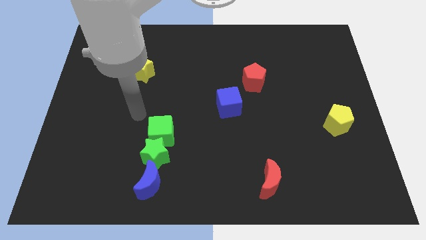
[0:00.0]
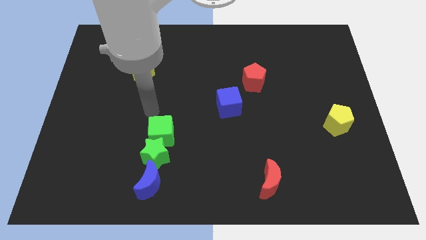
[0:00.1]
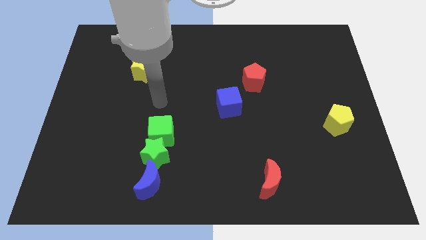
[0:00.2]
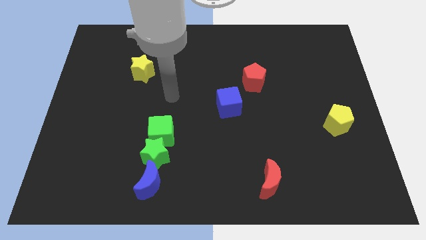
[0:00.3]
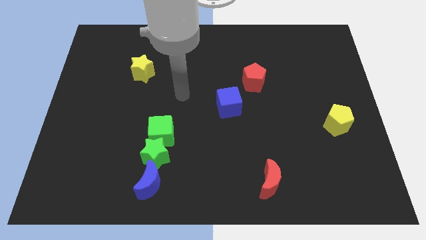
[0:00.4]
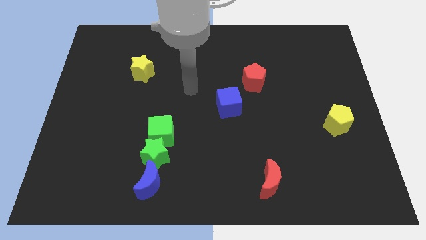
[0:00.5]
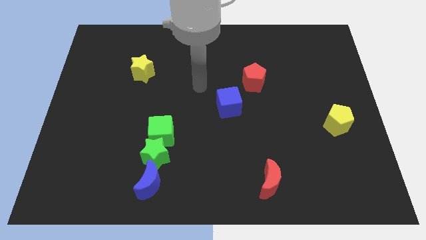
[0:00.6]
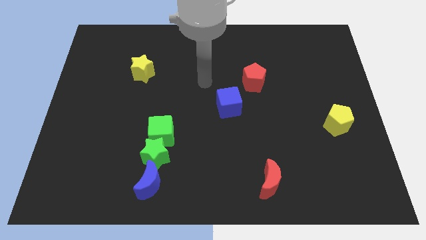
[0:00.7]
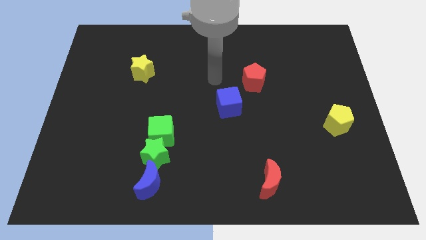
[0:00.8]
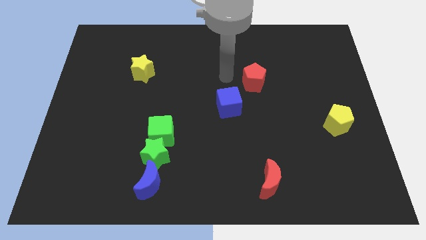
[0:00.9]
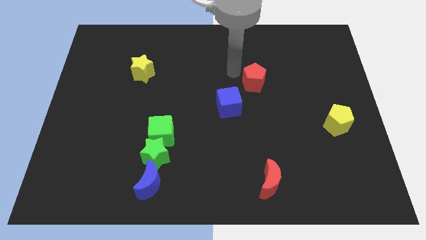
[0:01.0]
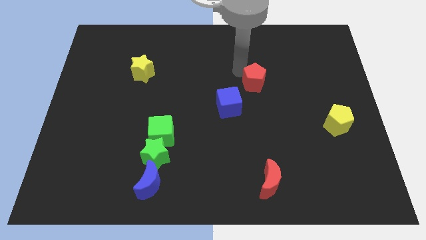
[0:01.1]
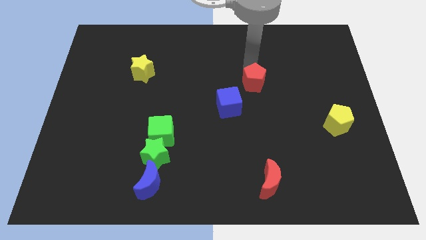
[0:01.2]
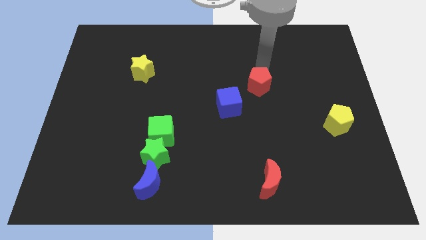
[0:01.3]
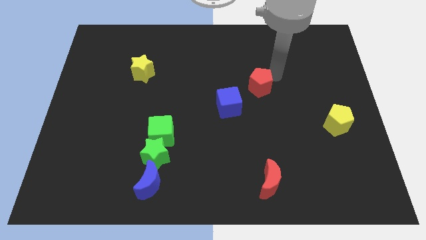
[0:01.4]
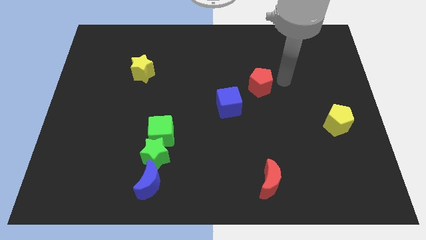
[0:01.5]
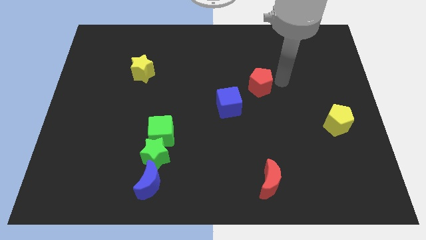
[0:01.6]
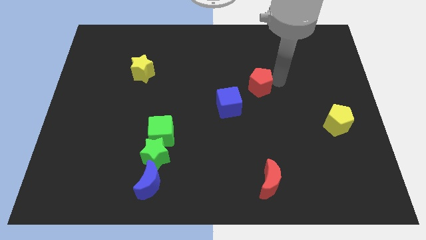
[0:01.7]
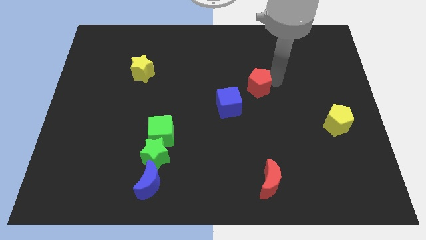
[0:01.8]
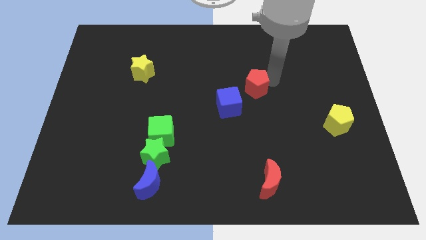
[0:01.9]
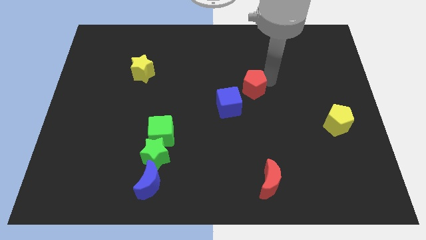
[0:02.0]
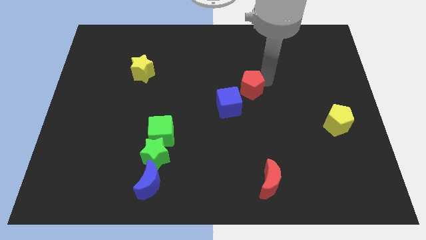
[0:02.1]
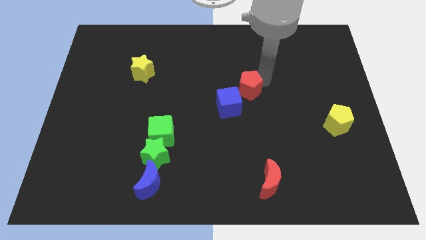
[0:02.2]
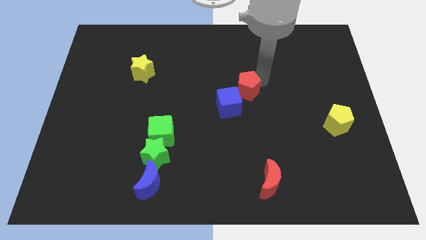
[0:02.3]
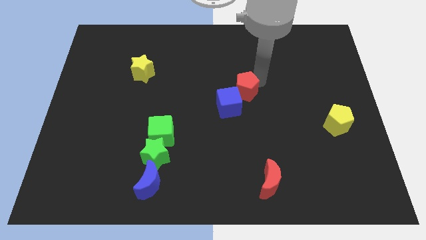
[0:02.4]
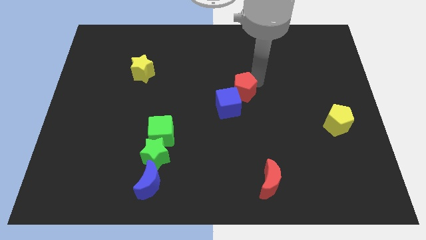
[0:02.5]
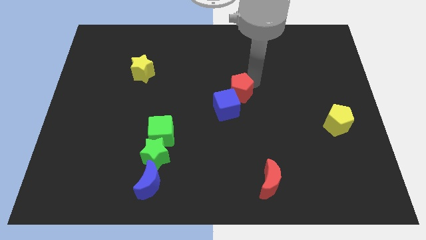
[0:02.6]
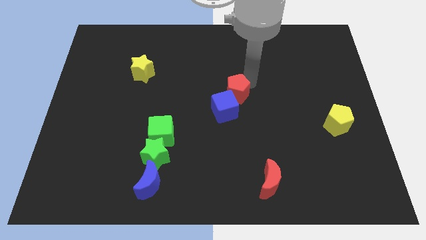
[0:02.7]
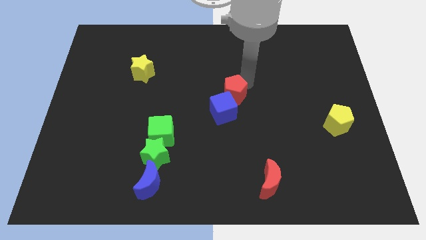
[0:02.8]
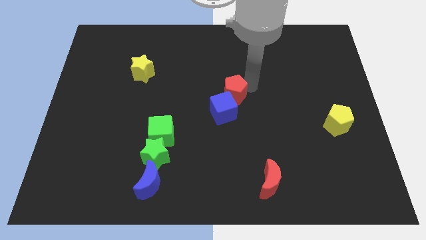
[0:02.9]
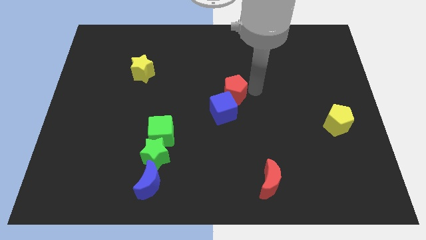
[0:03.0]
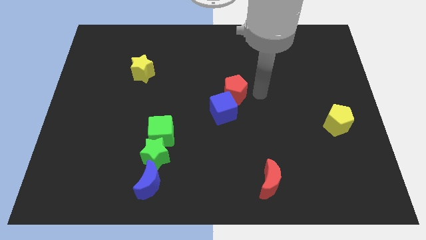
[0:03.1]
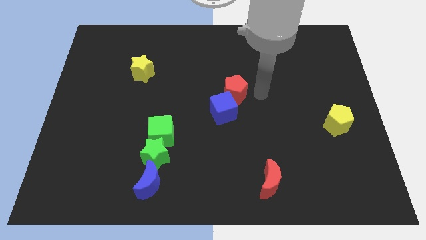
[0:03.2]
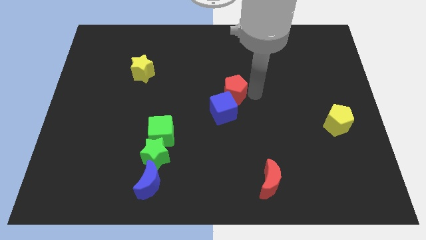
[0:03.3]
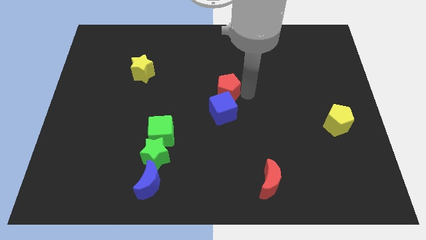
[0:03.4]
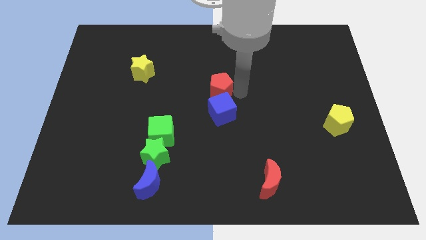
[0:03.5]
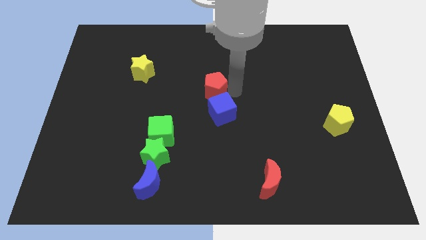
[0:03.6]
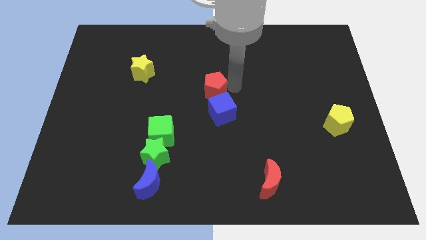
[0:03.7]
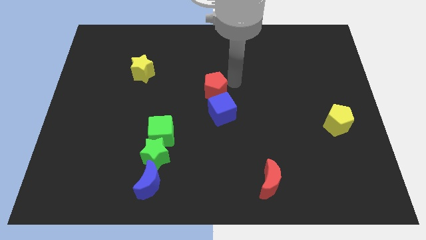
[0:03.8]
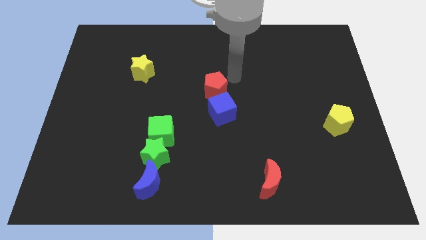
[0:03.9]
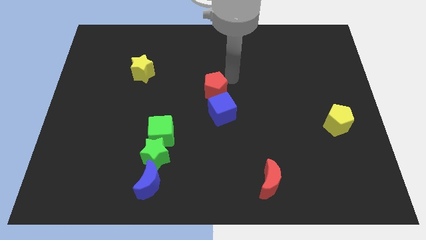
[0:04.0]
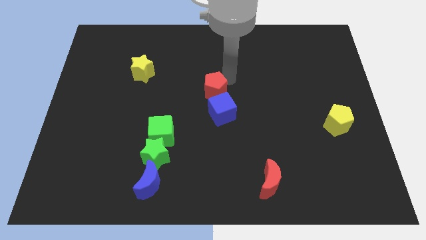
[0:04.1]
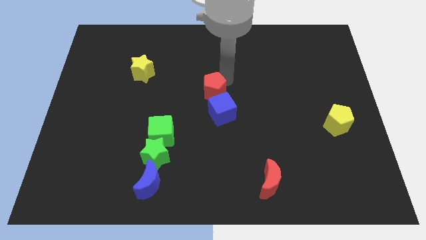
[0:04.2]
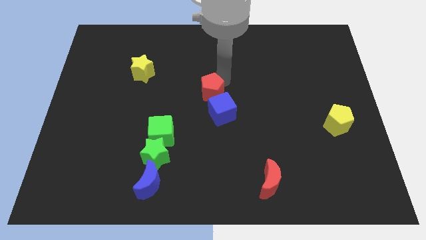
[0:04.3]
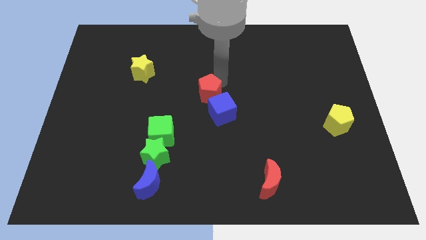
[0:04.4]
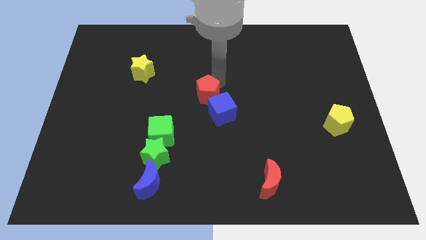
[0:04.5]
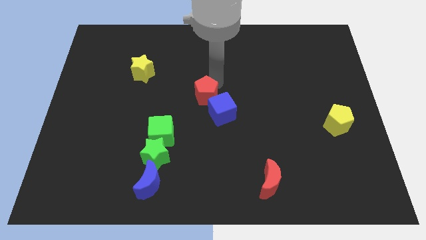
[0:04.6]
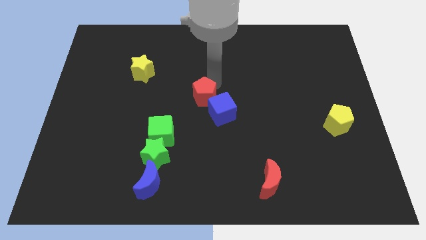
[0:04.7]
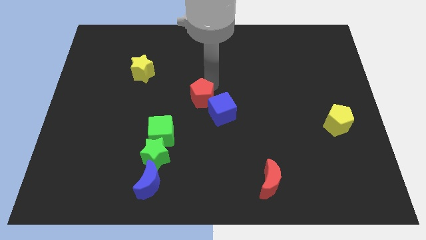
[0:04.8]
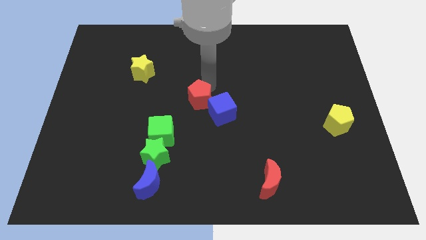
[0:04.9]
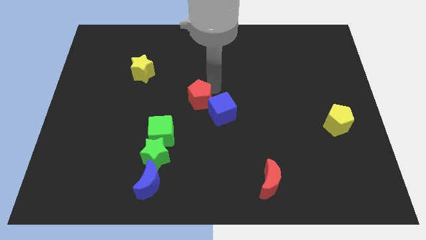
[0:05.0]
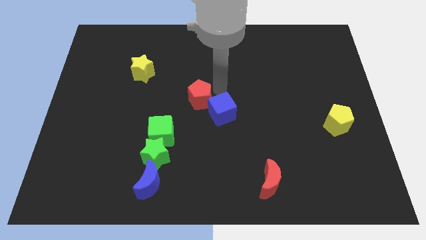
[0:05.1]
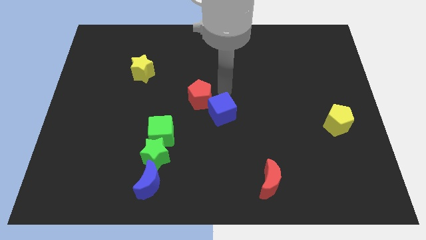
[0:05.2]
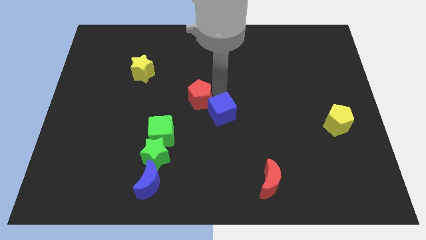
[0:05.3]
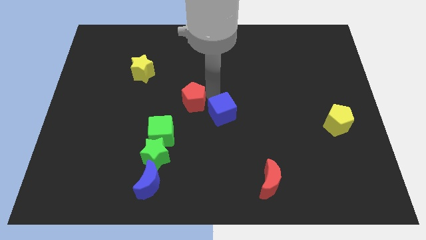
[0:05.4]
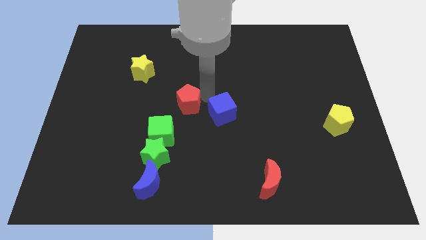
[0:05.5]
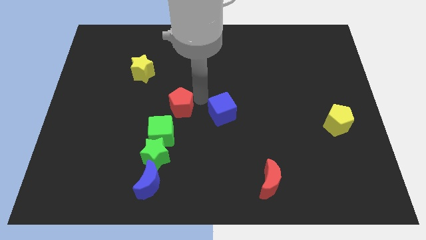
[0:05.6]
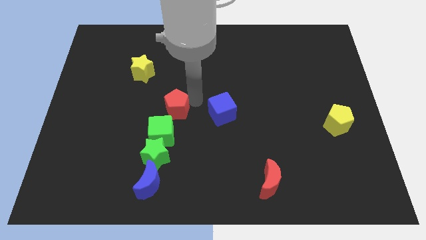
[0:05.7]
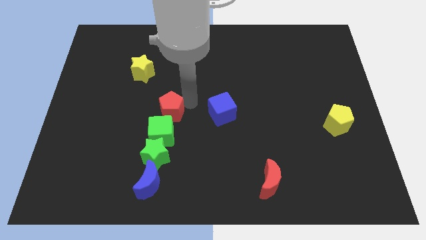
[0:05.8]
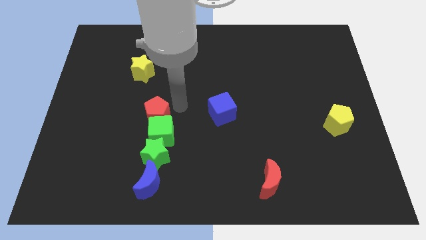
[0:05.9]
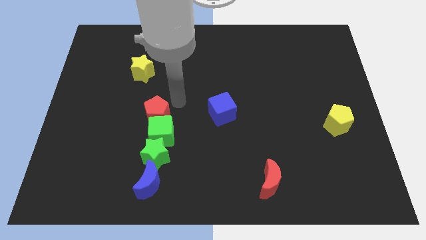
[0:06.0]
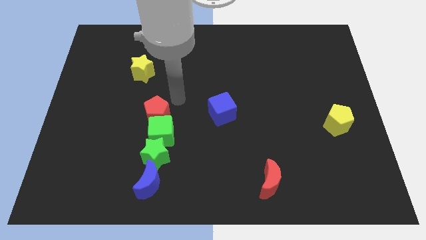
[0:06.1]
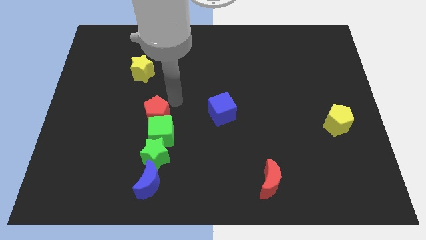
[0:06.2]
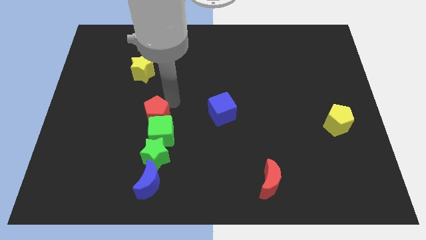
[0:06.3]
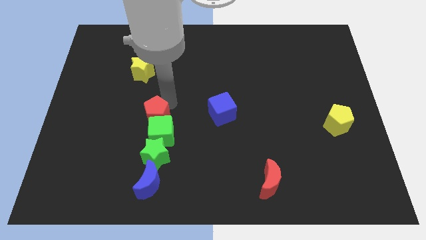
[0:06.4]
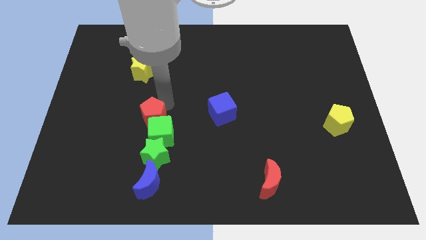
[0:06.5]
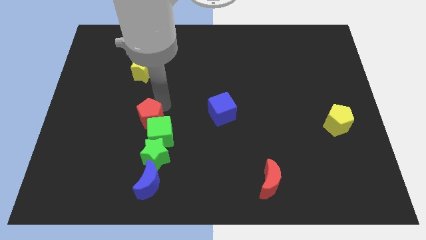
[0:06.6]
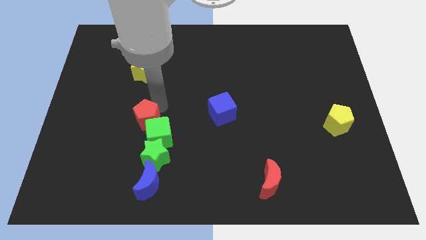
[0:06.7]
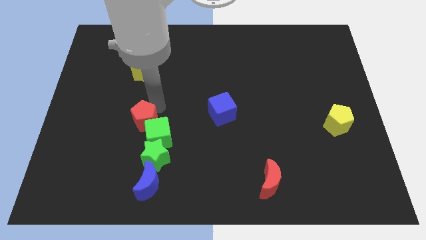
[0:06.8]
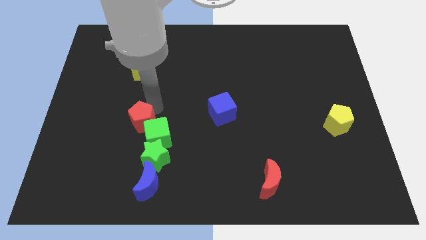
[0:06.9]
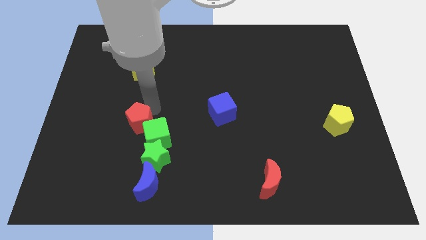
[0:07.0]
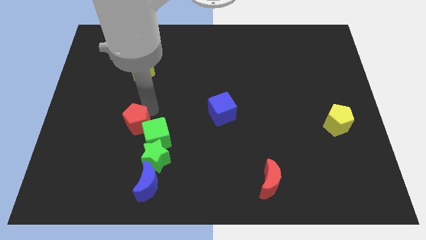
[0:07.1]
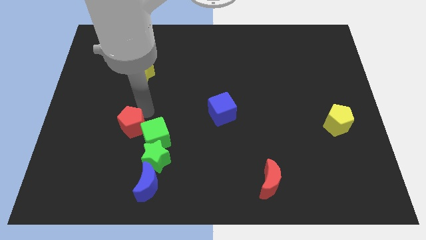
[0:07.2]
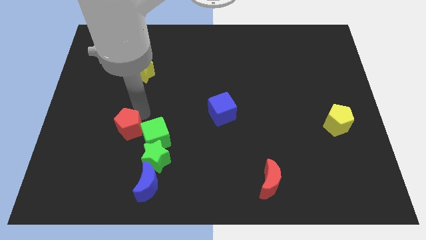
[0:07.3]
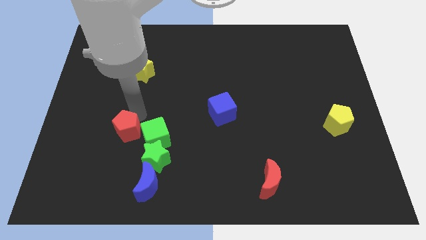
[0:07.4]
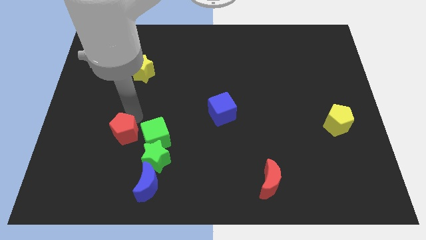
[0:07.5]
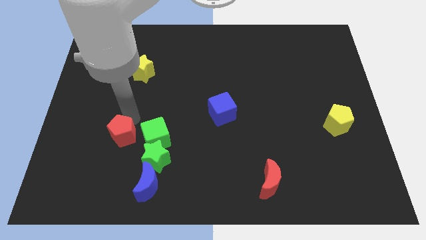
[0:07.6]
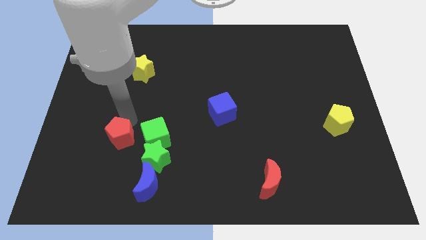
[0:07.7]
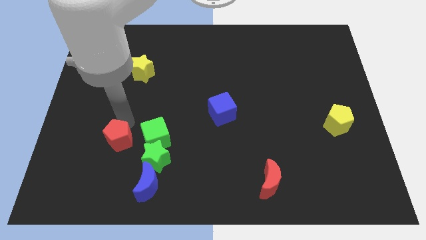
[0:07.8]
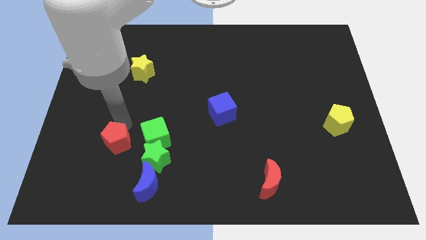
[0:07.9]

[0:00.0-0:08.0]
put the red pentagon just left of the green star
